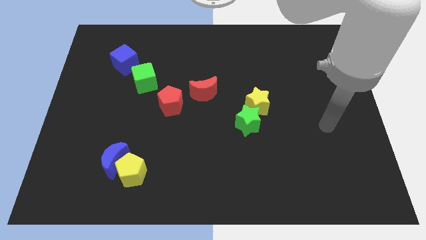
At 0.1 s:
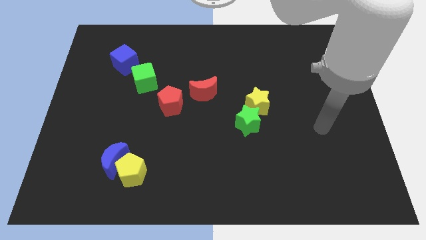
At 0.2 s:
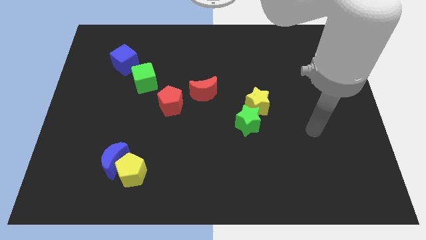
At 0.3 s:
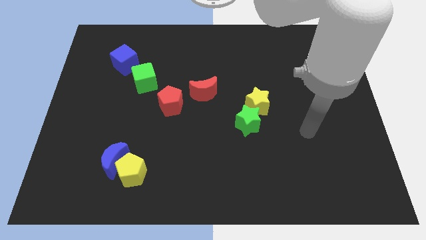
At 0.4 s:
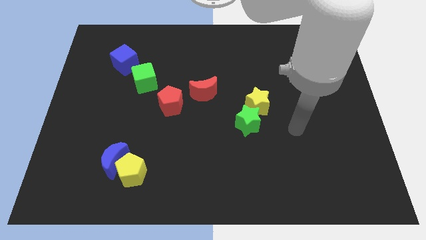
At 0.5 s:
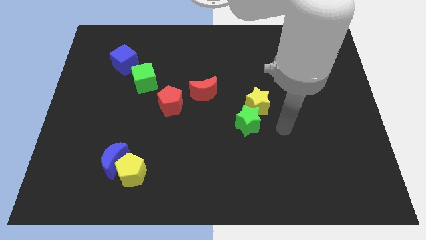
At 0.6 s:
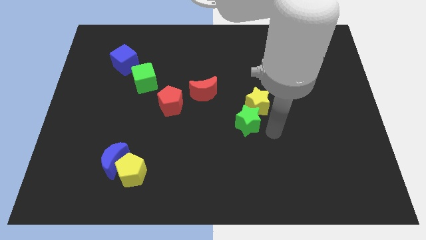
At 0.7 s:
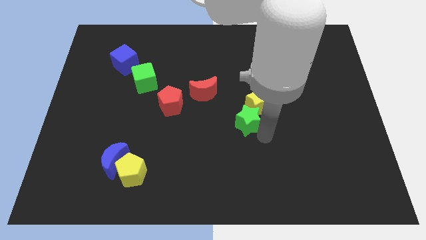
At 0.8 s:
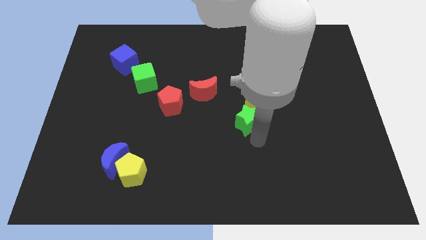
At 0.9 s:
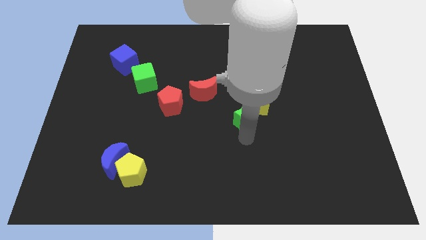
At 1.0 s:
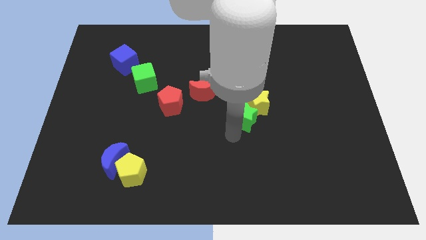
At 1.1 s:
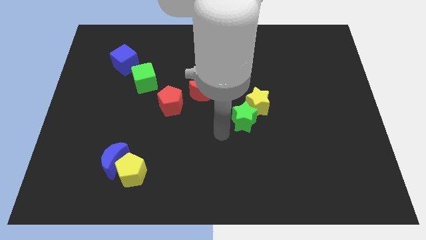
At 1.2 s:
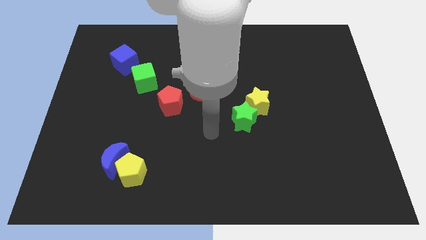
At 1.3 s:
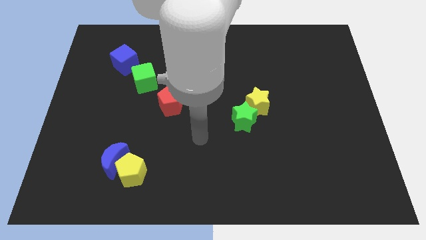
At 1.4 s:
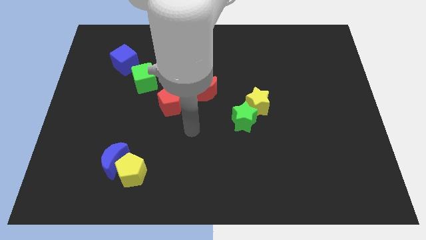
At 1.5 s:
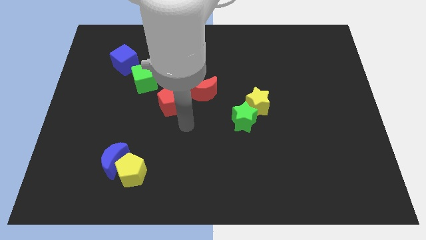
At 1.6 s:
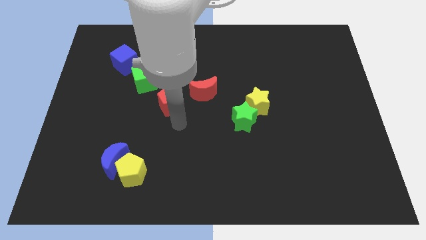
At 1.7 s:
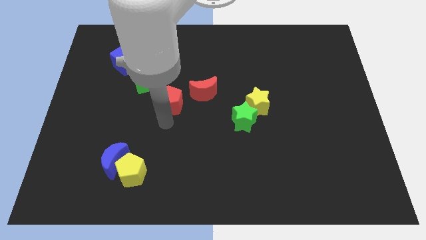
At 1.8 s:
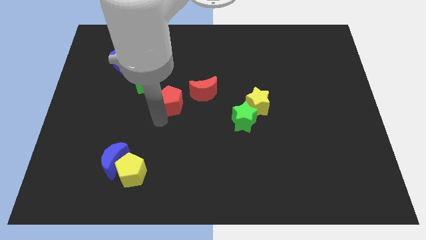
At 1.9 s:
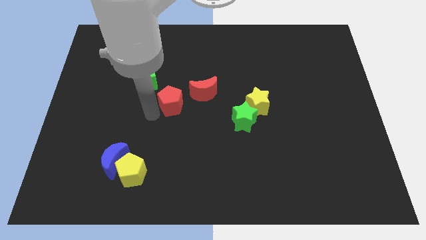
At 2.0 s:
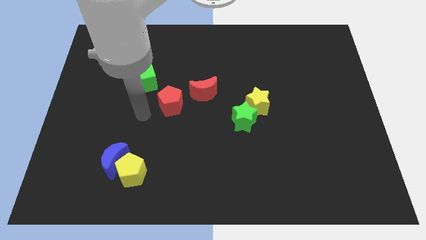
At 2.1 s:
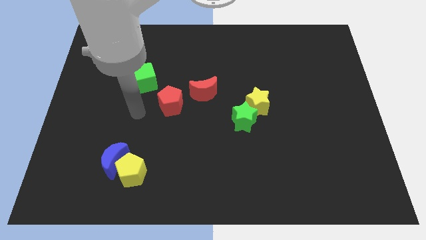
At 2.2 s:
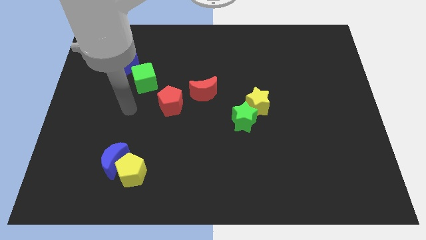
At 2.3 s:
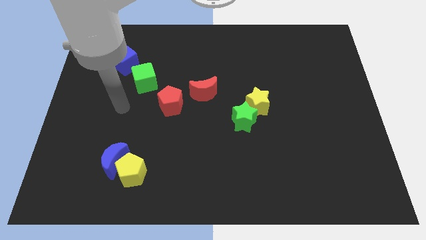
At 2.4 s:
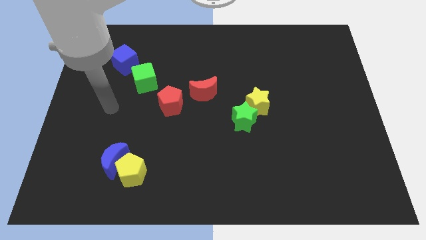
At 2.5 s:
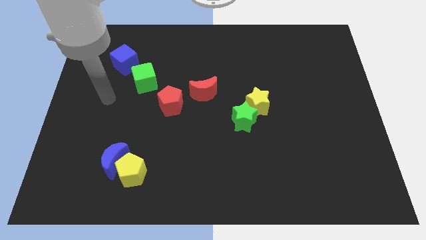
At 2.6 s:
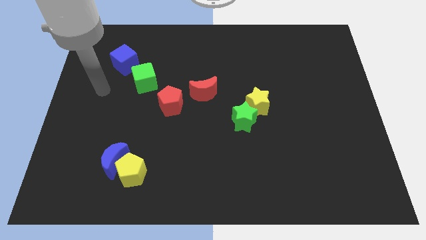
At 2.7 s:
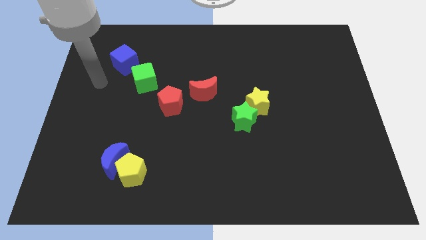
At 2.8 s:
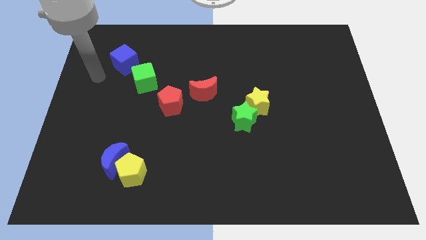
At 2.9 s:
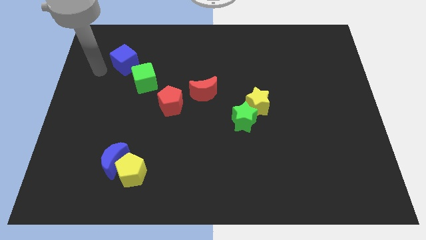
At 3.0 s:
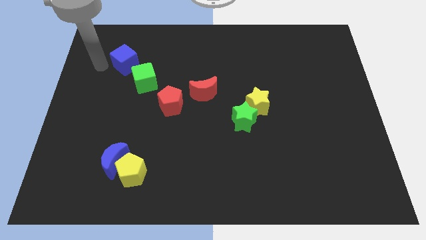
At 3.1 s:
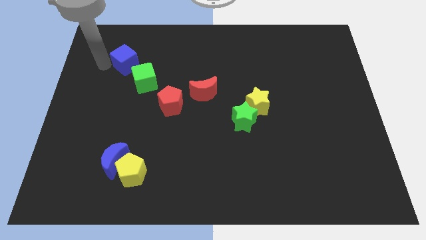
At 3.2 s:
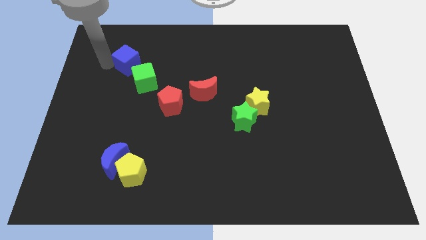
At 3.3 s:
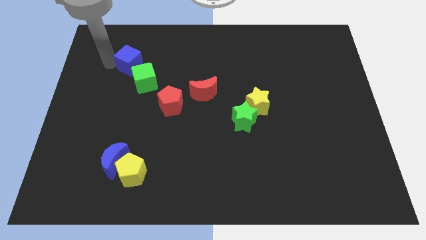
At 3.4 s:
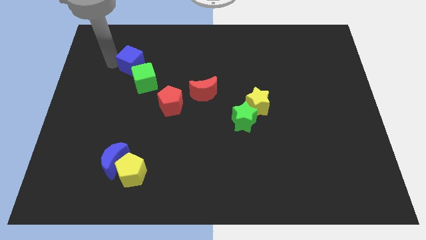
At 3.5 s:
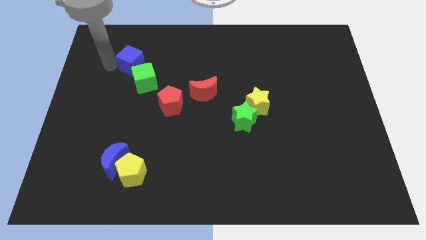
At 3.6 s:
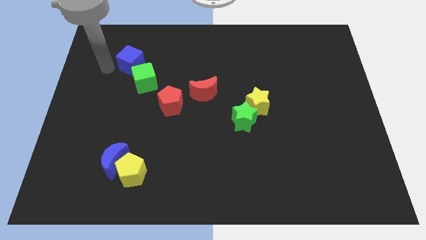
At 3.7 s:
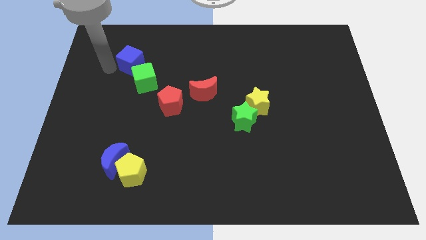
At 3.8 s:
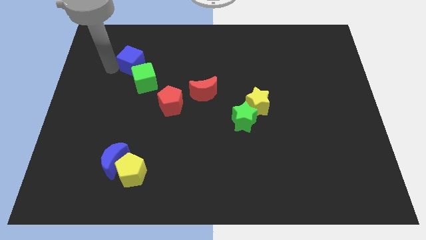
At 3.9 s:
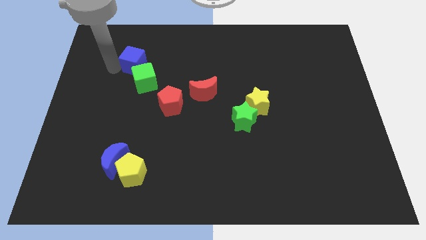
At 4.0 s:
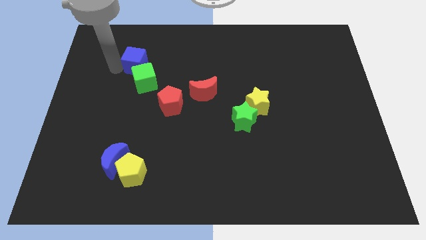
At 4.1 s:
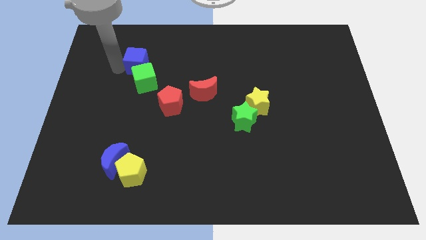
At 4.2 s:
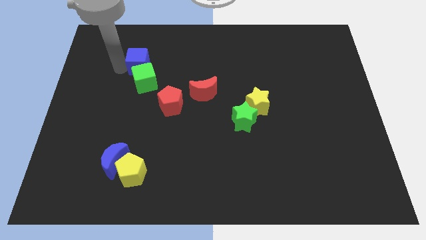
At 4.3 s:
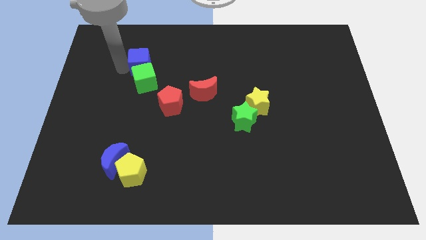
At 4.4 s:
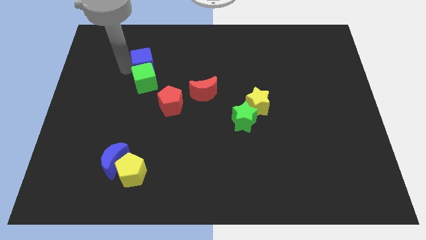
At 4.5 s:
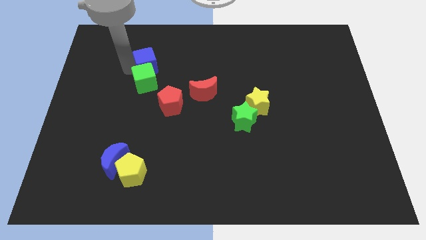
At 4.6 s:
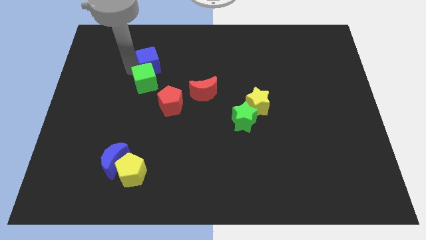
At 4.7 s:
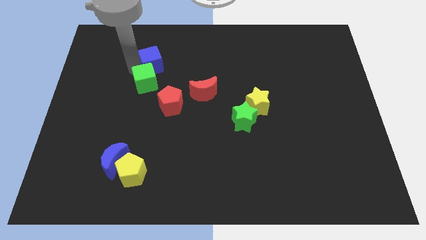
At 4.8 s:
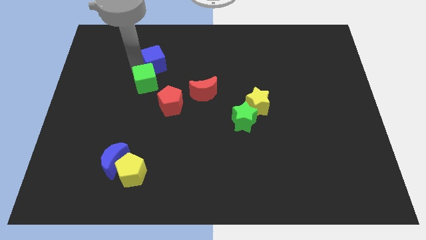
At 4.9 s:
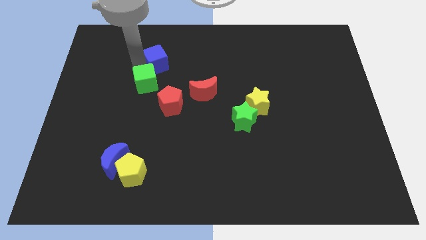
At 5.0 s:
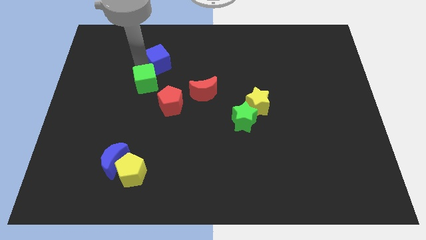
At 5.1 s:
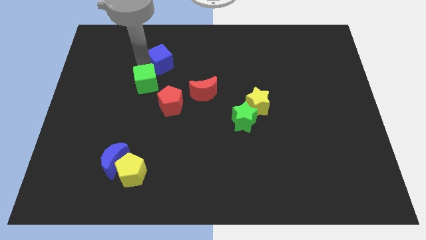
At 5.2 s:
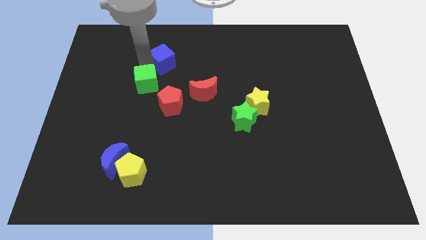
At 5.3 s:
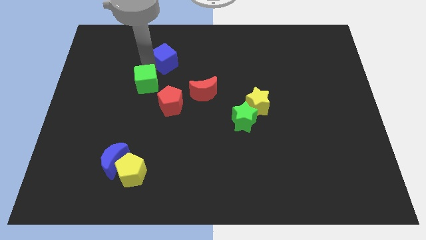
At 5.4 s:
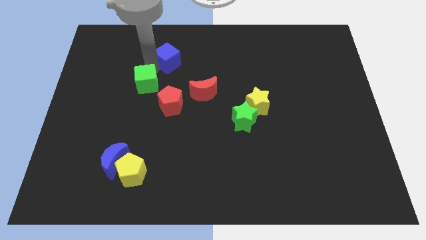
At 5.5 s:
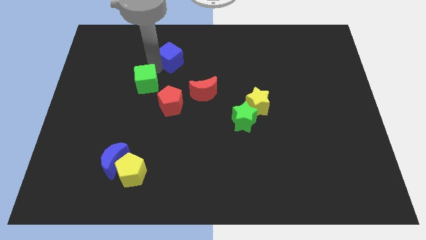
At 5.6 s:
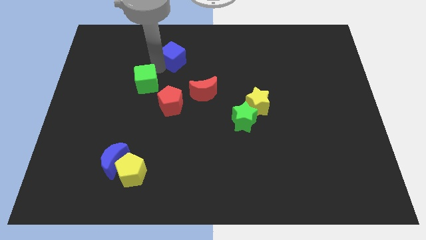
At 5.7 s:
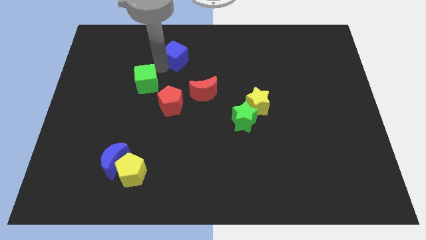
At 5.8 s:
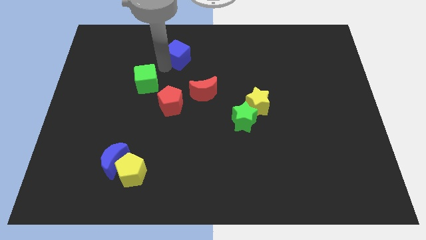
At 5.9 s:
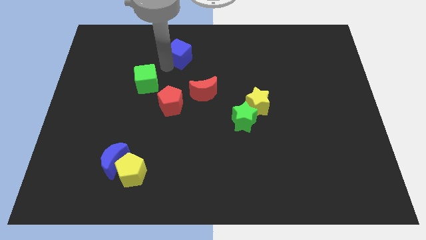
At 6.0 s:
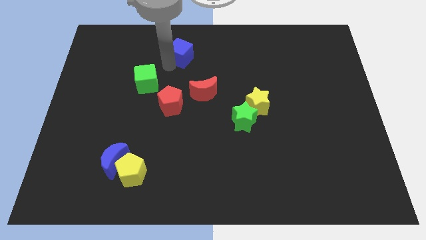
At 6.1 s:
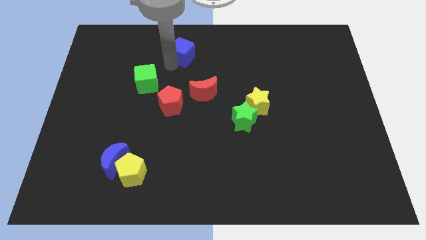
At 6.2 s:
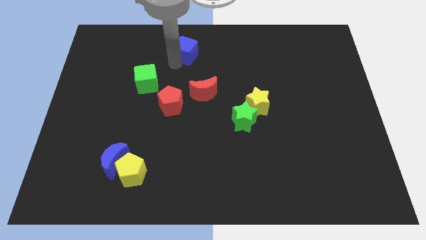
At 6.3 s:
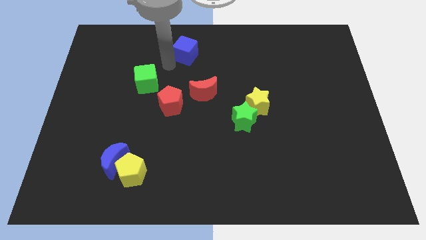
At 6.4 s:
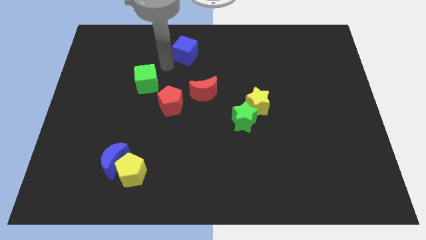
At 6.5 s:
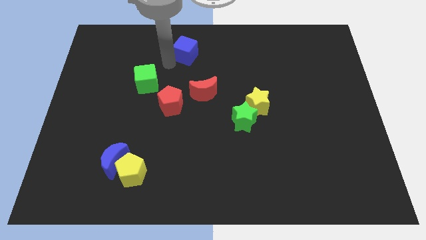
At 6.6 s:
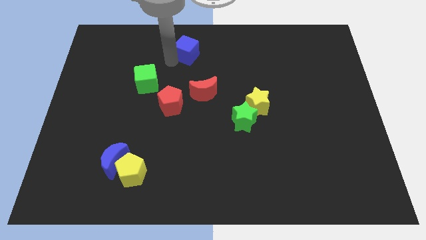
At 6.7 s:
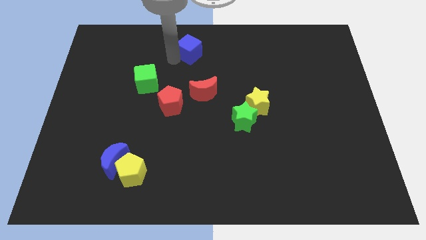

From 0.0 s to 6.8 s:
slide the blue cube to the towards your base
